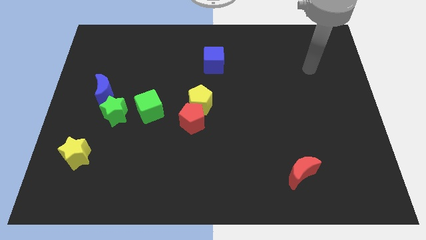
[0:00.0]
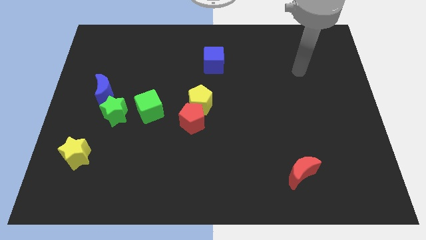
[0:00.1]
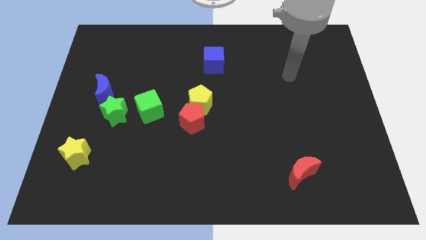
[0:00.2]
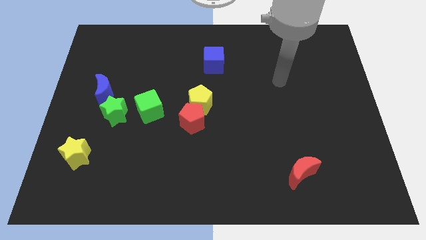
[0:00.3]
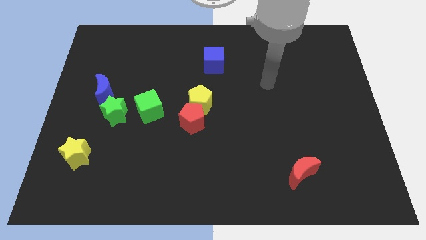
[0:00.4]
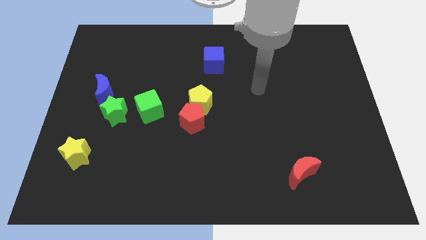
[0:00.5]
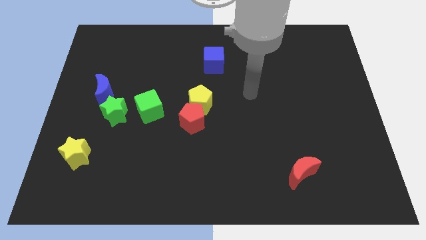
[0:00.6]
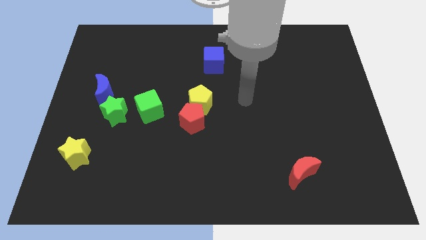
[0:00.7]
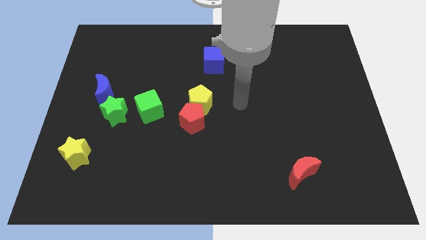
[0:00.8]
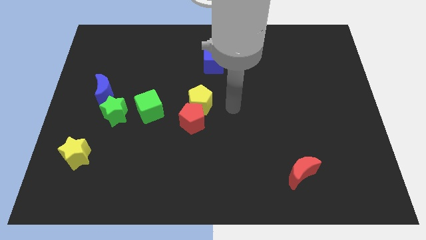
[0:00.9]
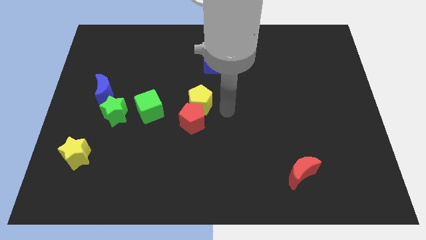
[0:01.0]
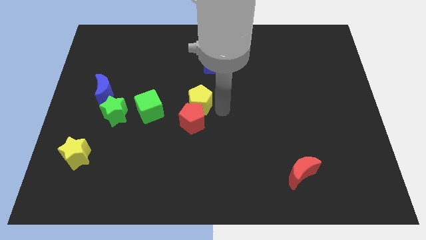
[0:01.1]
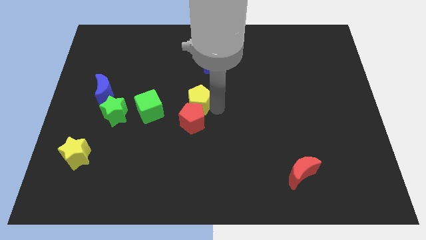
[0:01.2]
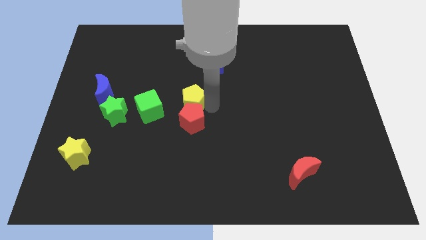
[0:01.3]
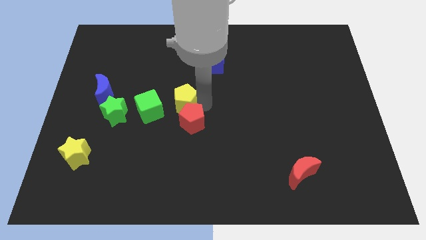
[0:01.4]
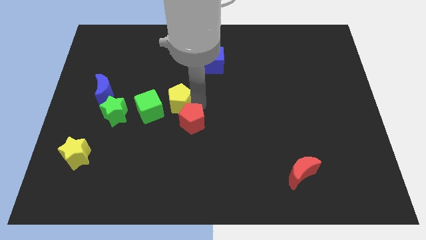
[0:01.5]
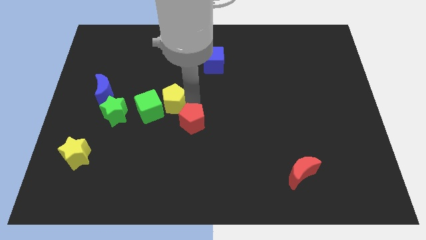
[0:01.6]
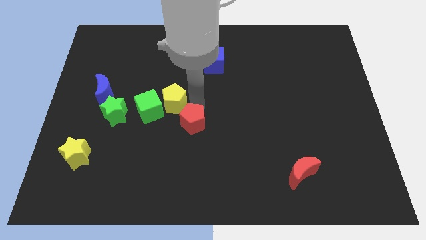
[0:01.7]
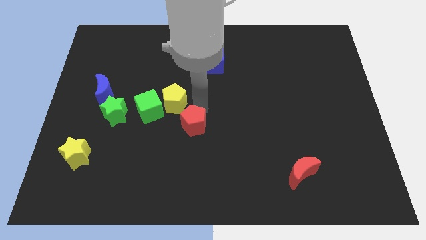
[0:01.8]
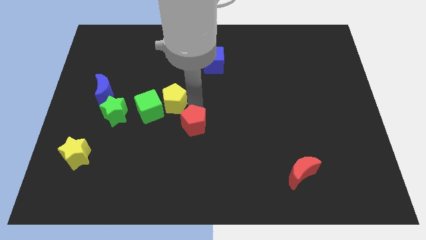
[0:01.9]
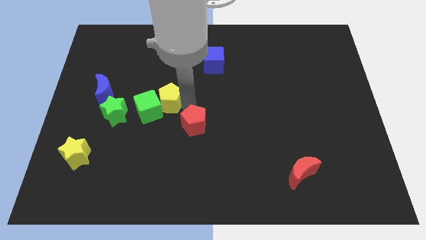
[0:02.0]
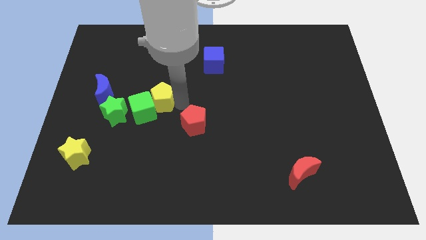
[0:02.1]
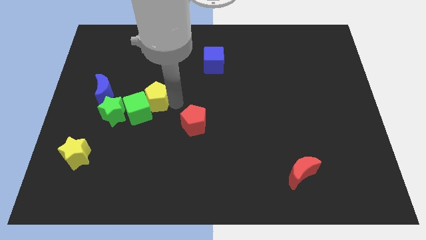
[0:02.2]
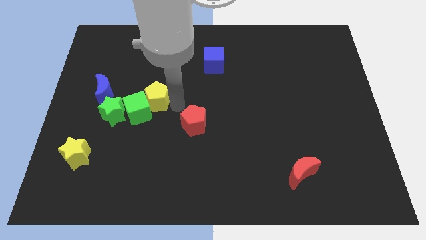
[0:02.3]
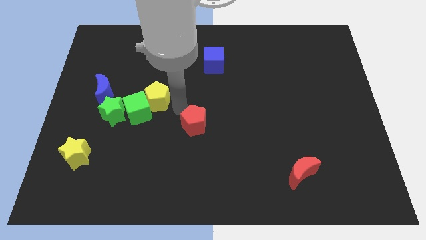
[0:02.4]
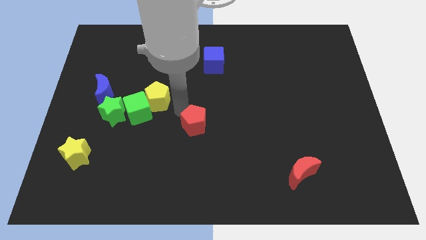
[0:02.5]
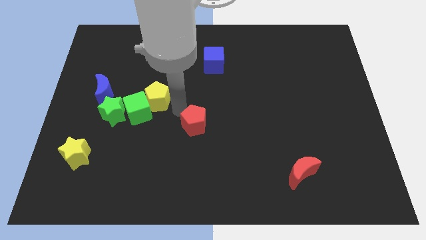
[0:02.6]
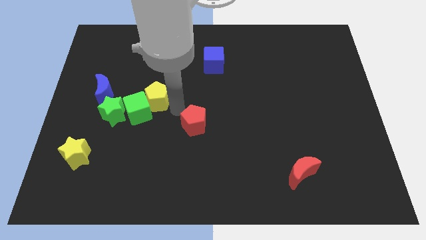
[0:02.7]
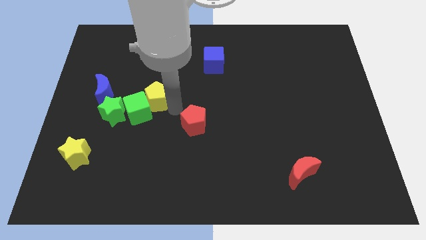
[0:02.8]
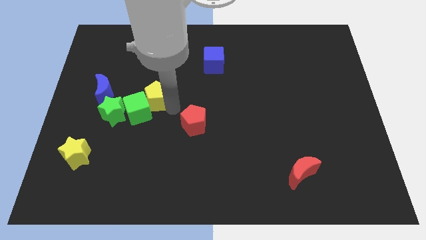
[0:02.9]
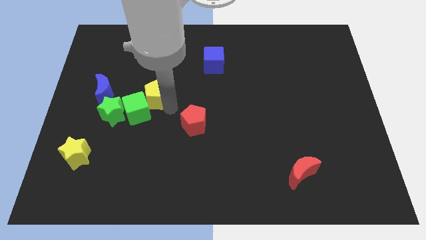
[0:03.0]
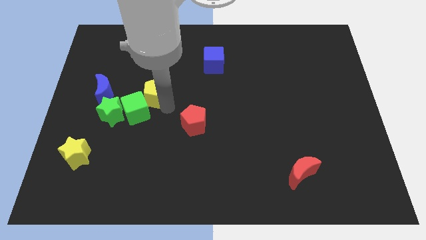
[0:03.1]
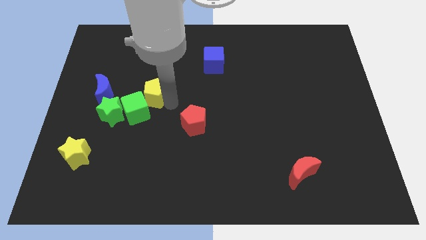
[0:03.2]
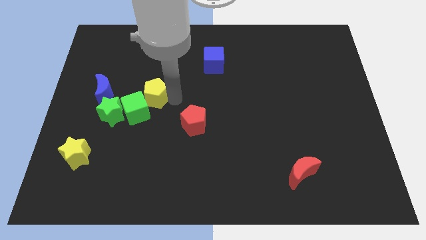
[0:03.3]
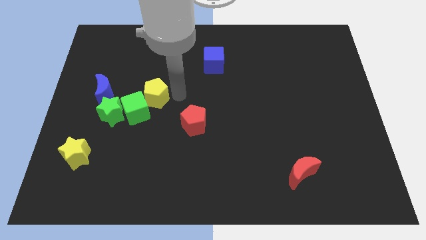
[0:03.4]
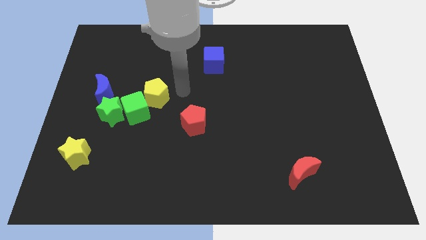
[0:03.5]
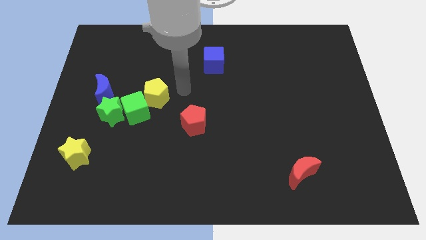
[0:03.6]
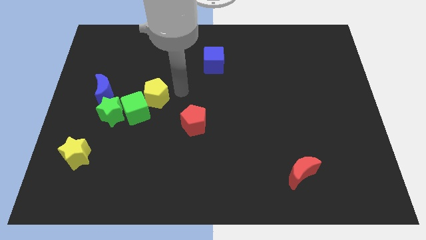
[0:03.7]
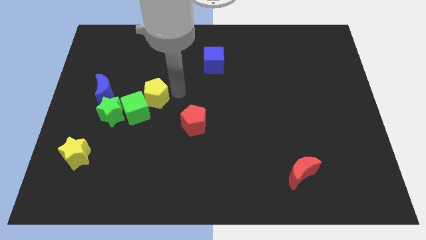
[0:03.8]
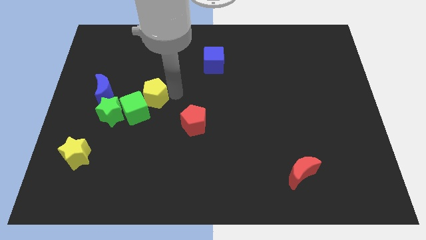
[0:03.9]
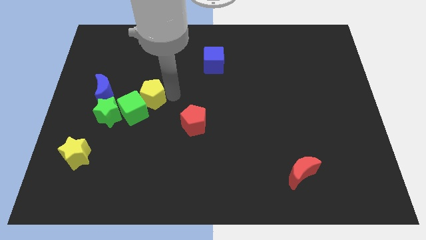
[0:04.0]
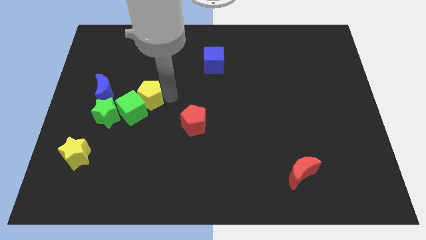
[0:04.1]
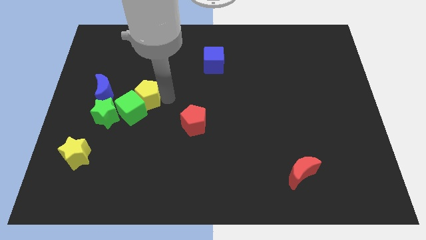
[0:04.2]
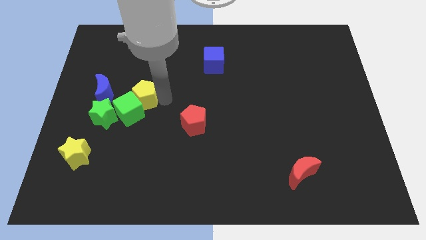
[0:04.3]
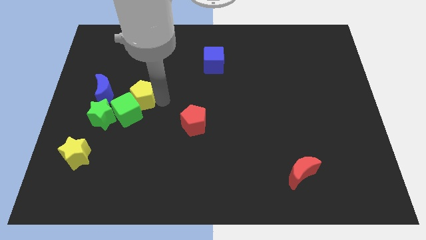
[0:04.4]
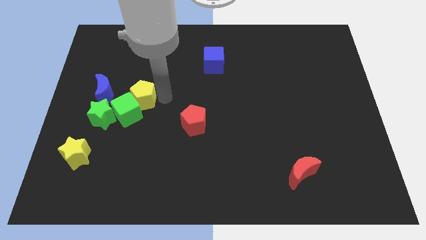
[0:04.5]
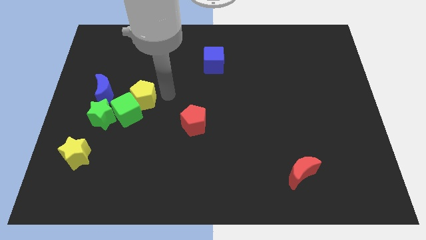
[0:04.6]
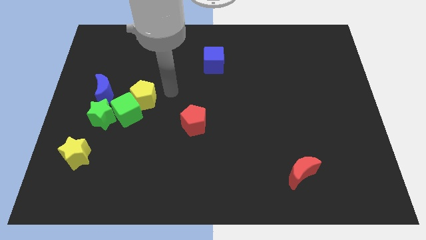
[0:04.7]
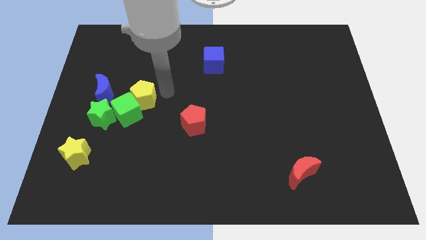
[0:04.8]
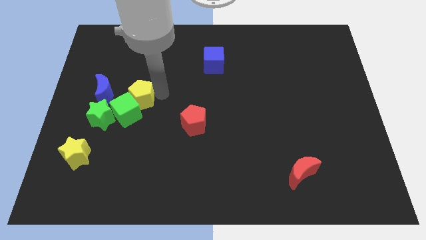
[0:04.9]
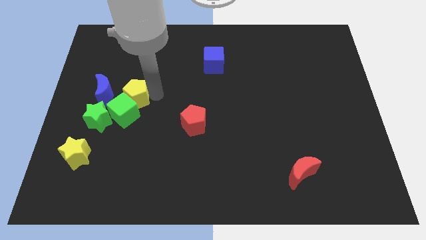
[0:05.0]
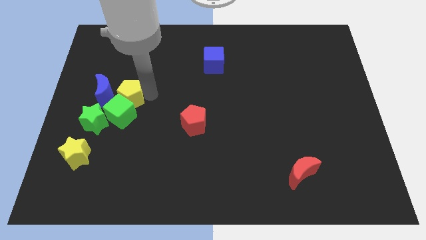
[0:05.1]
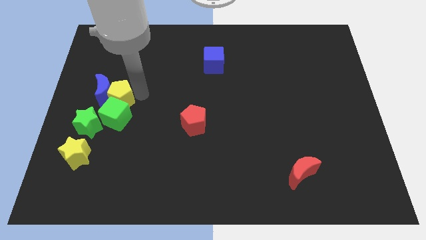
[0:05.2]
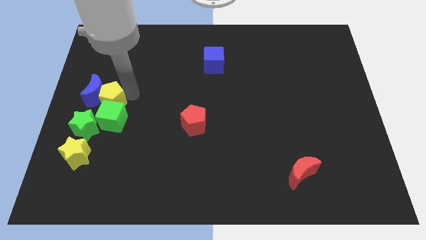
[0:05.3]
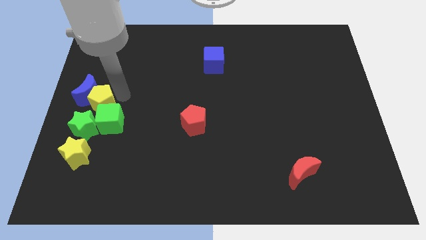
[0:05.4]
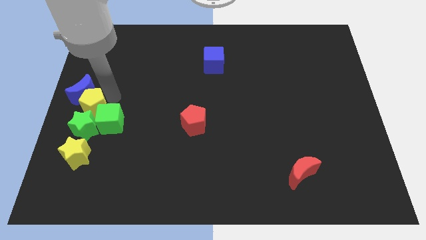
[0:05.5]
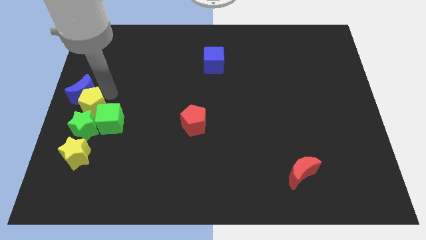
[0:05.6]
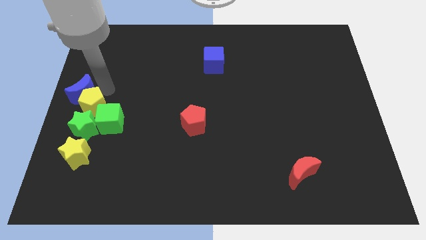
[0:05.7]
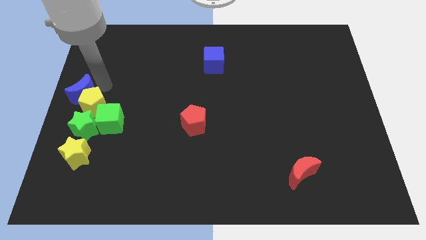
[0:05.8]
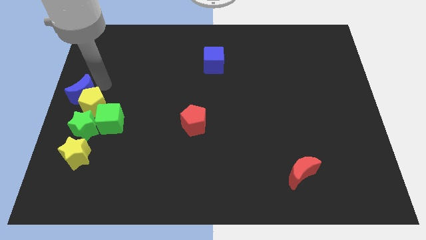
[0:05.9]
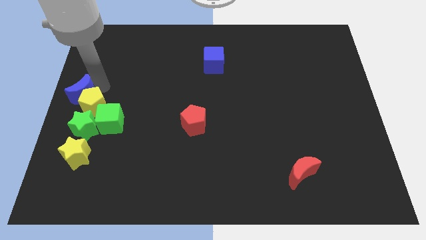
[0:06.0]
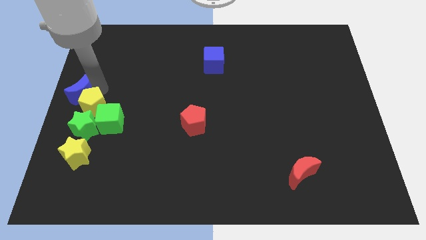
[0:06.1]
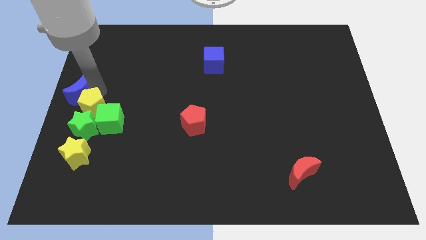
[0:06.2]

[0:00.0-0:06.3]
put the yellow pentagon next to the green star

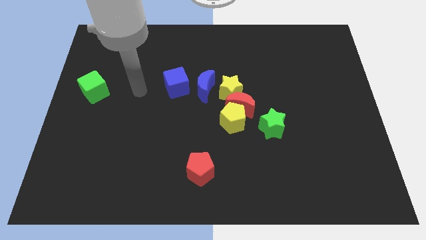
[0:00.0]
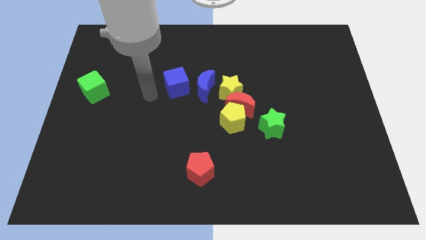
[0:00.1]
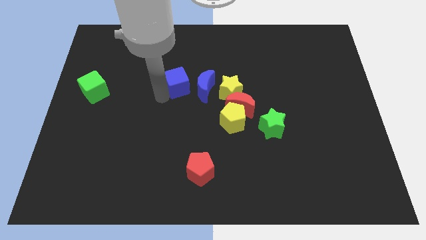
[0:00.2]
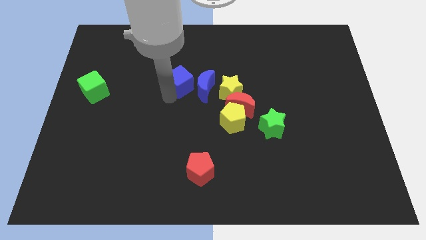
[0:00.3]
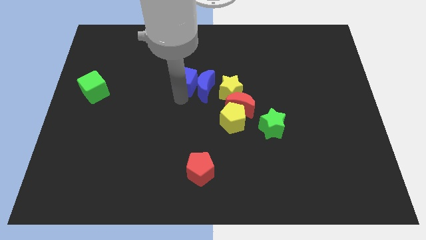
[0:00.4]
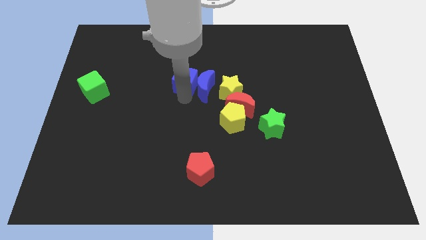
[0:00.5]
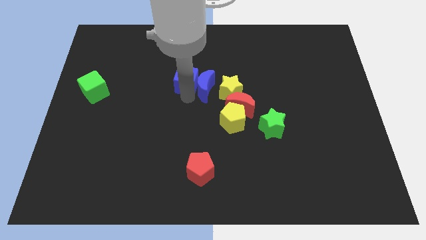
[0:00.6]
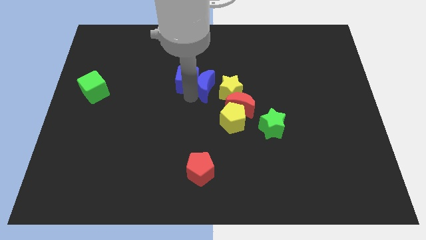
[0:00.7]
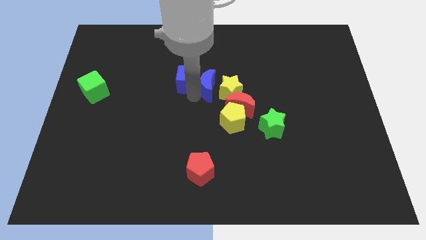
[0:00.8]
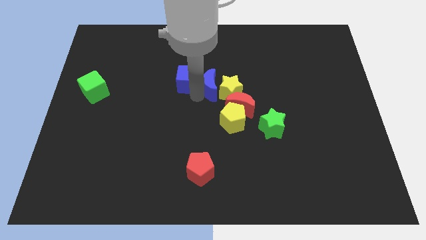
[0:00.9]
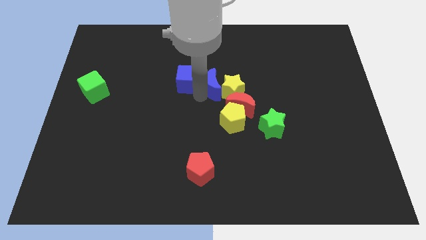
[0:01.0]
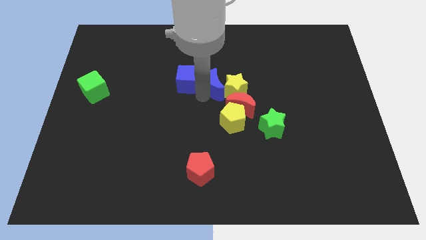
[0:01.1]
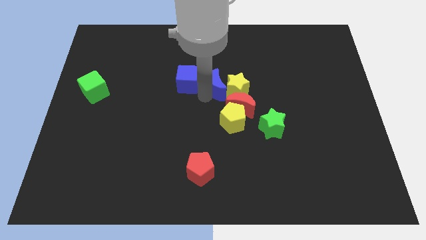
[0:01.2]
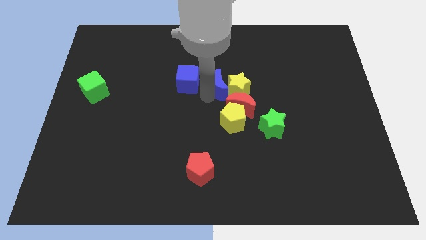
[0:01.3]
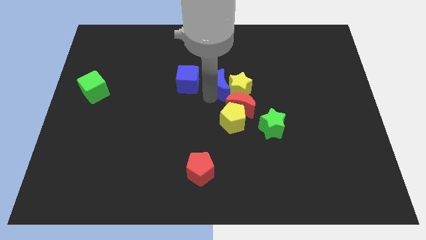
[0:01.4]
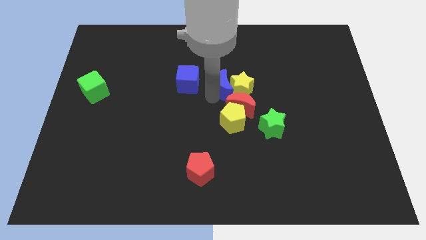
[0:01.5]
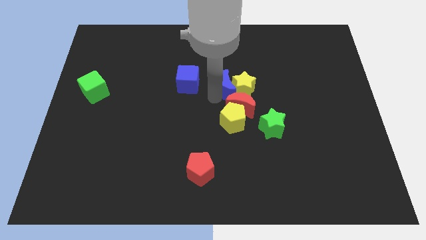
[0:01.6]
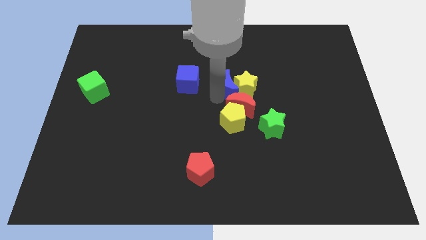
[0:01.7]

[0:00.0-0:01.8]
move the blue moon towards the red moon
